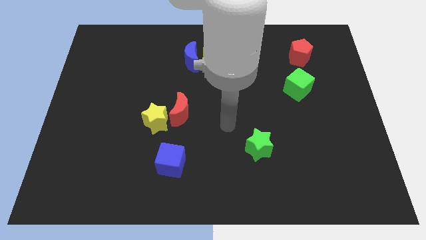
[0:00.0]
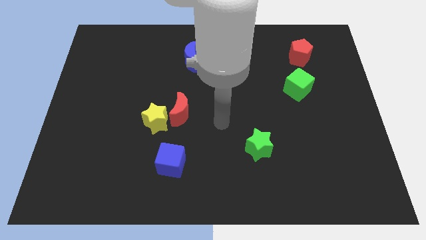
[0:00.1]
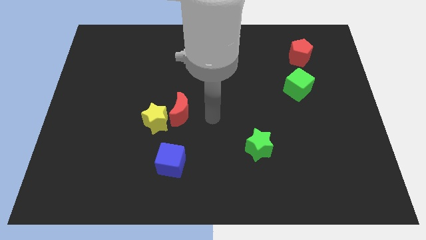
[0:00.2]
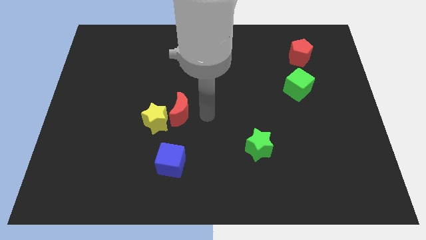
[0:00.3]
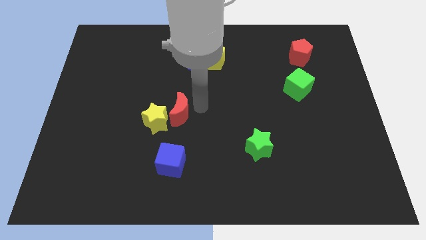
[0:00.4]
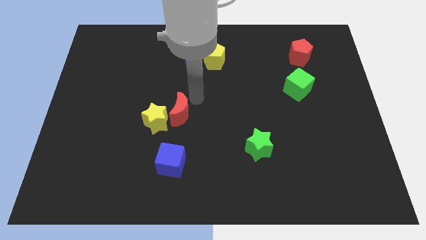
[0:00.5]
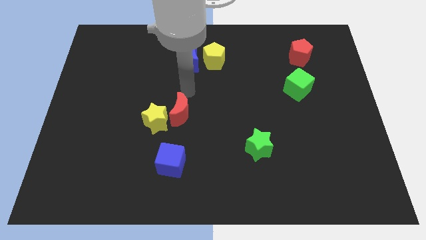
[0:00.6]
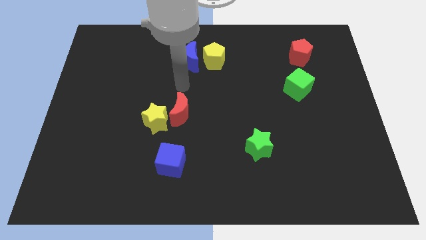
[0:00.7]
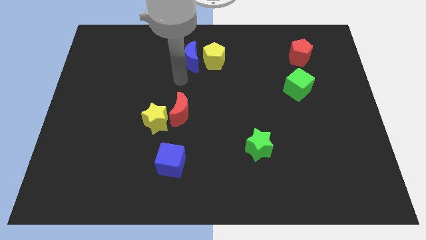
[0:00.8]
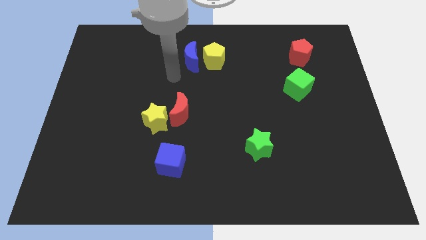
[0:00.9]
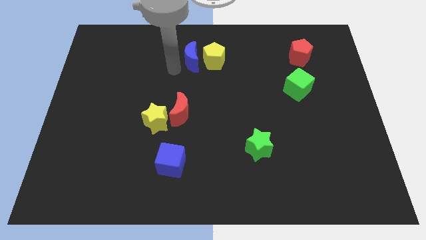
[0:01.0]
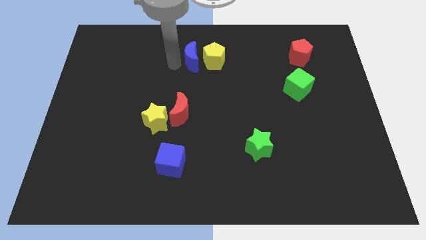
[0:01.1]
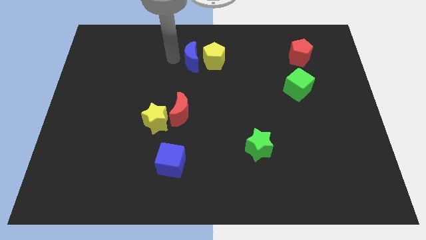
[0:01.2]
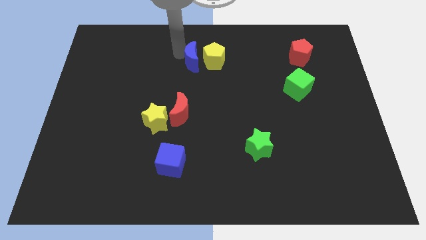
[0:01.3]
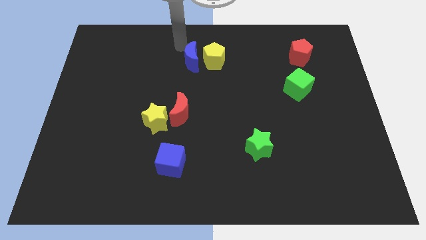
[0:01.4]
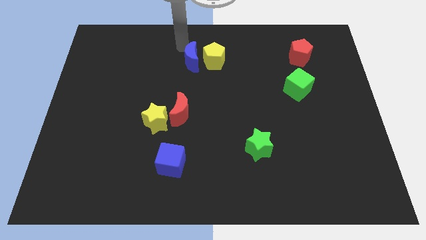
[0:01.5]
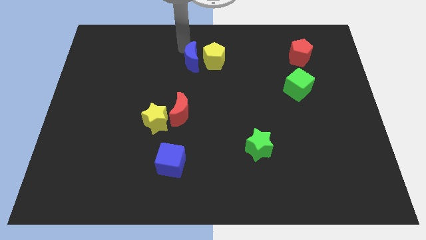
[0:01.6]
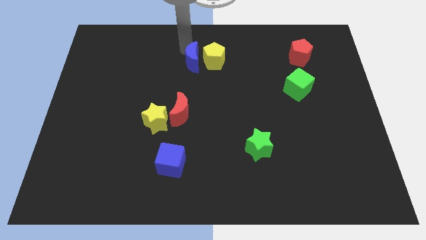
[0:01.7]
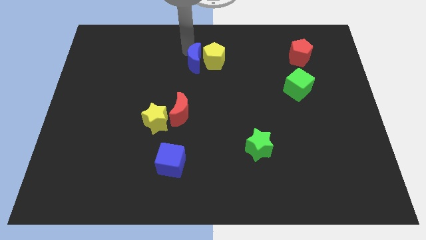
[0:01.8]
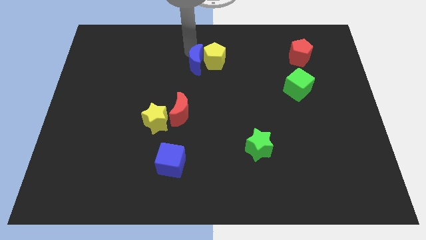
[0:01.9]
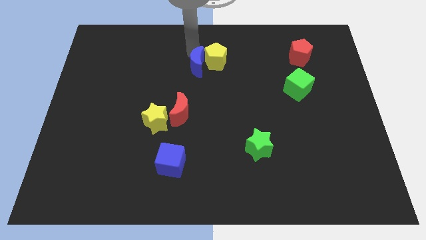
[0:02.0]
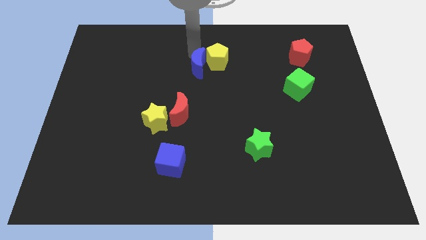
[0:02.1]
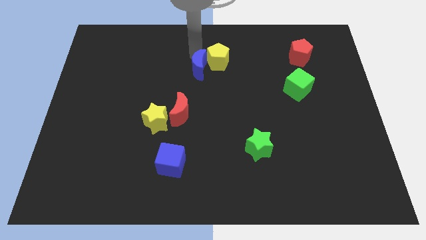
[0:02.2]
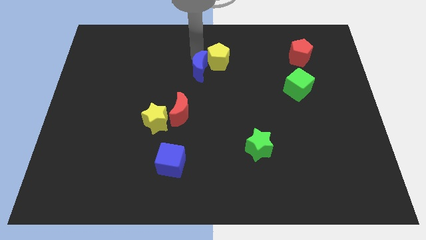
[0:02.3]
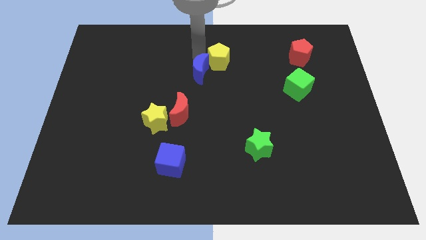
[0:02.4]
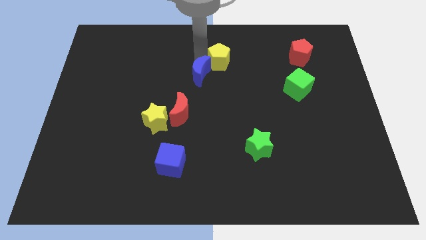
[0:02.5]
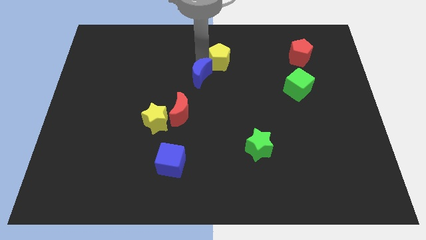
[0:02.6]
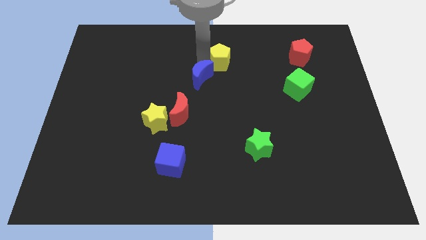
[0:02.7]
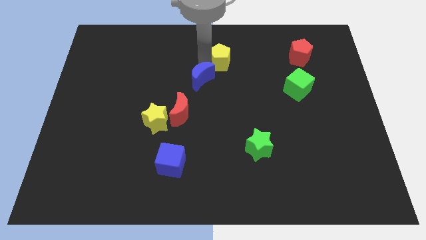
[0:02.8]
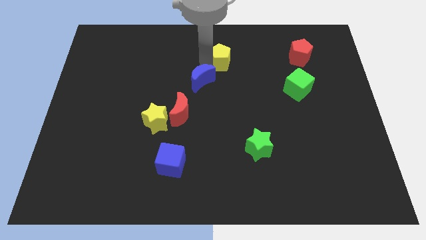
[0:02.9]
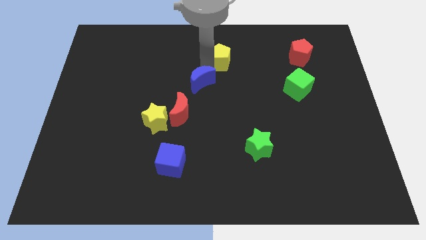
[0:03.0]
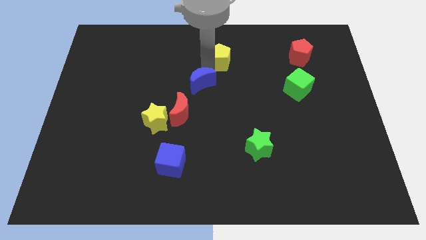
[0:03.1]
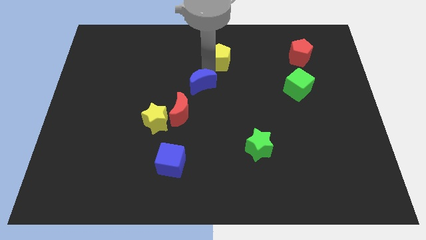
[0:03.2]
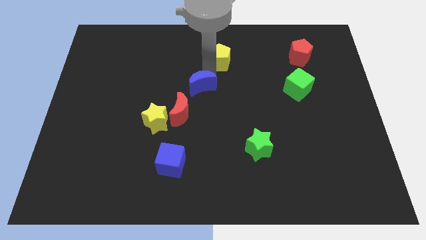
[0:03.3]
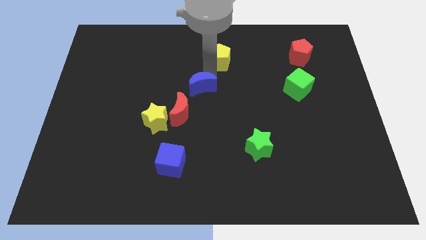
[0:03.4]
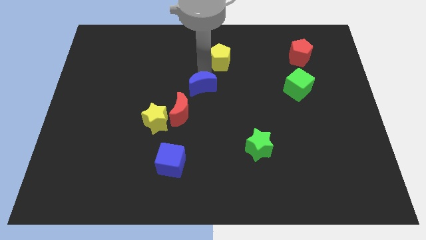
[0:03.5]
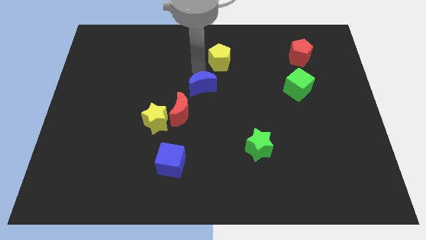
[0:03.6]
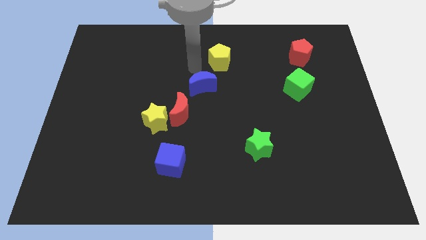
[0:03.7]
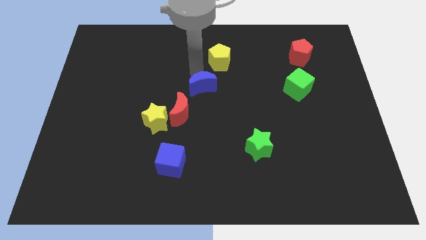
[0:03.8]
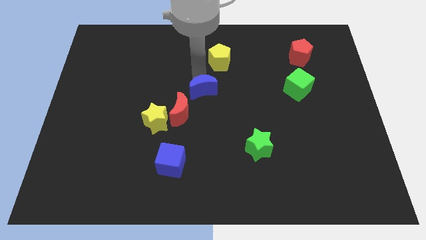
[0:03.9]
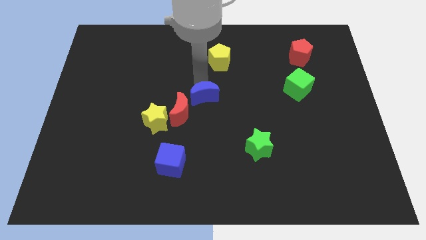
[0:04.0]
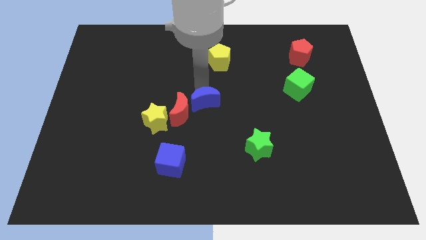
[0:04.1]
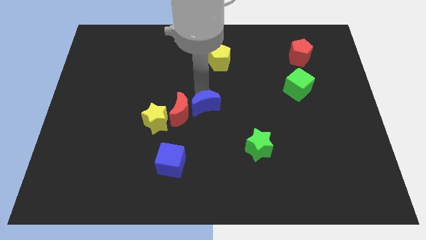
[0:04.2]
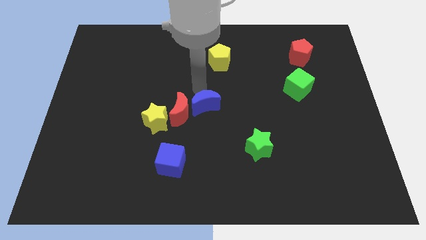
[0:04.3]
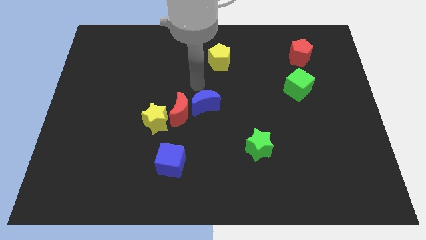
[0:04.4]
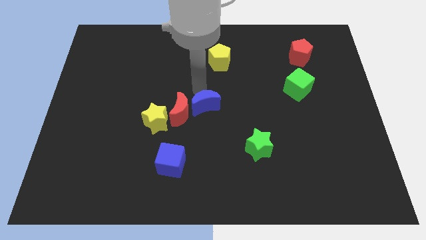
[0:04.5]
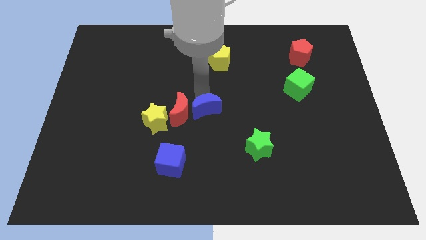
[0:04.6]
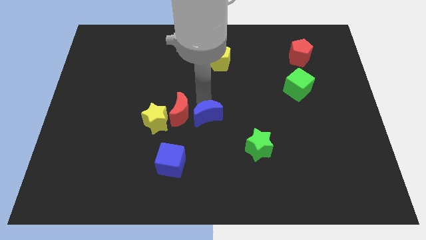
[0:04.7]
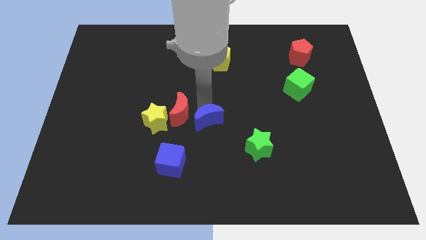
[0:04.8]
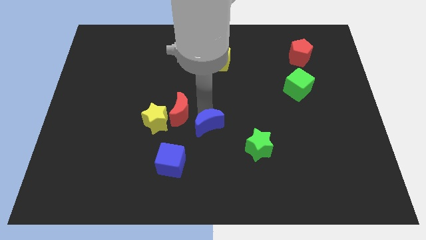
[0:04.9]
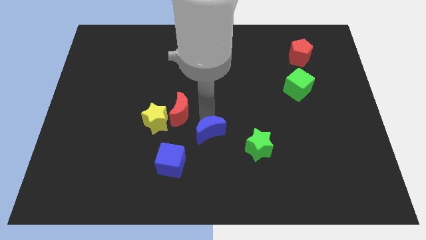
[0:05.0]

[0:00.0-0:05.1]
move the blue moon left of the green star

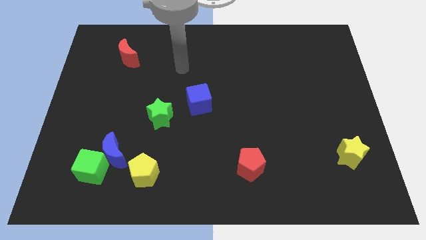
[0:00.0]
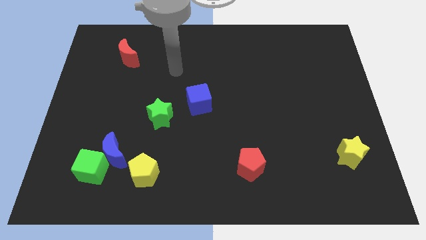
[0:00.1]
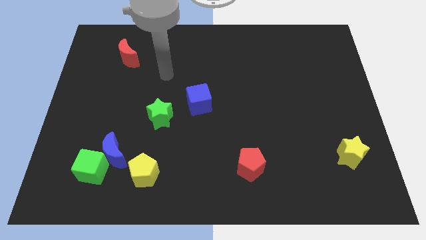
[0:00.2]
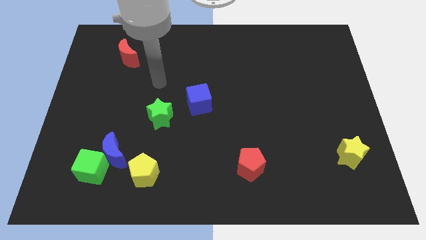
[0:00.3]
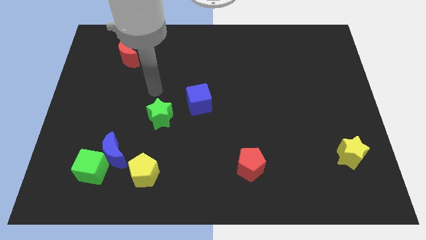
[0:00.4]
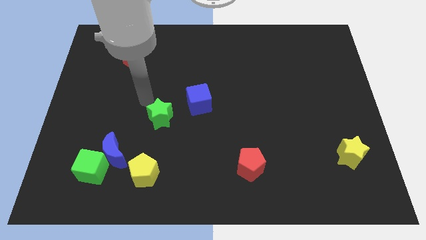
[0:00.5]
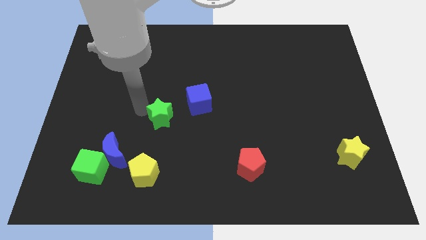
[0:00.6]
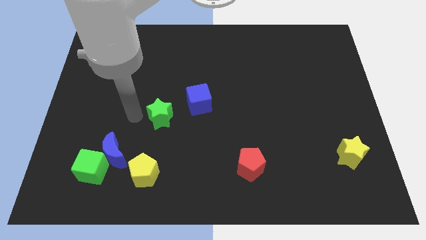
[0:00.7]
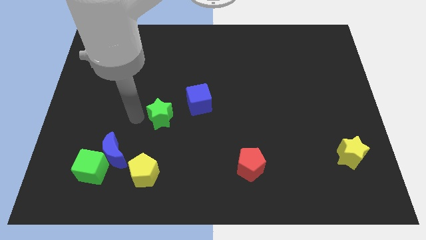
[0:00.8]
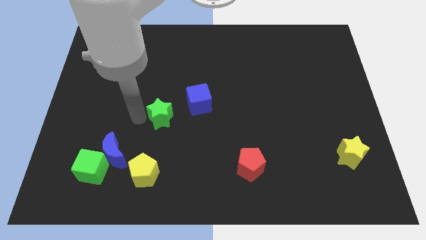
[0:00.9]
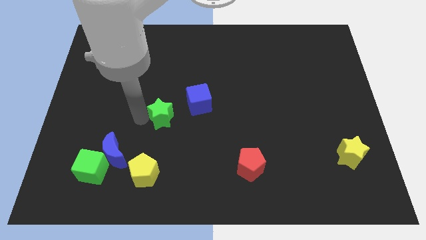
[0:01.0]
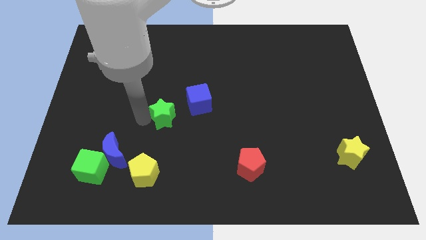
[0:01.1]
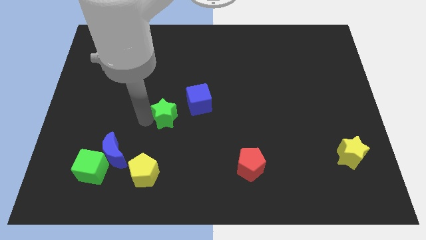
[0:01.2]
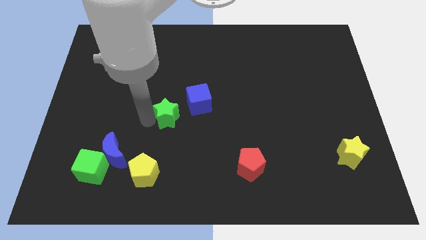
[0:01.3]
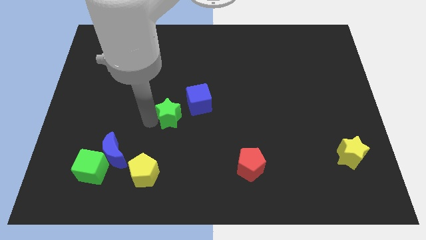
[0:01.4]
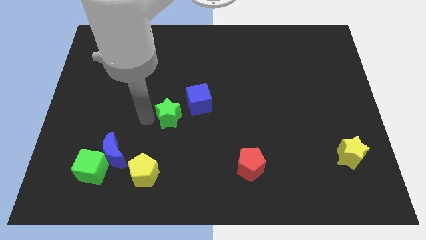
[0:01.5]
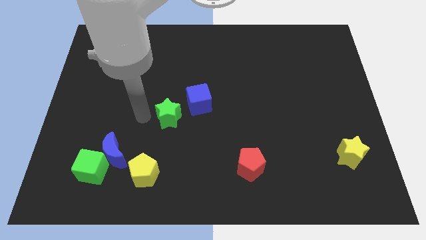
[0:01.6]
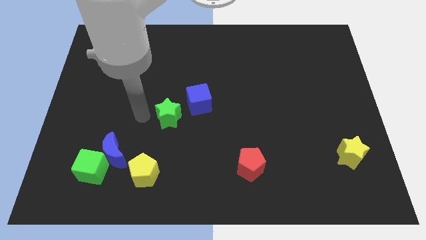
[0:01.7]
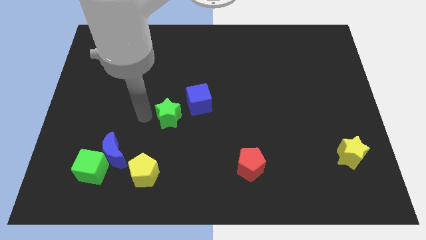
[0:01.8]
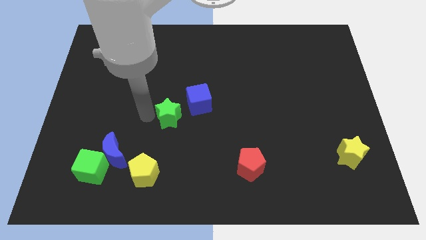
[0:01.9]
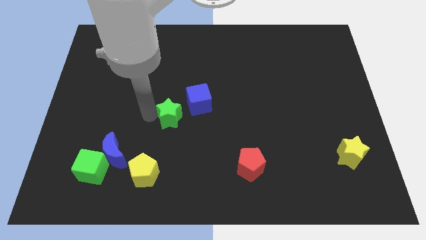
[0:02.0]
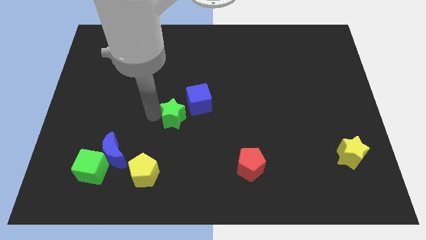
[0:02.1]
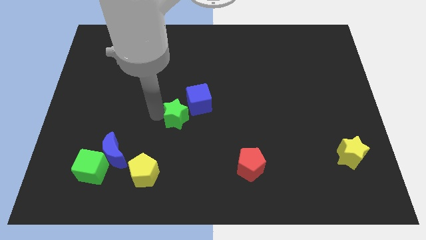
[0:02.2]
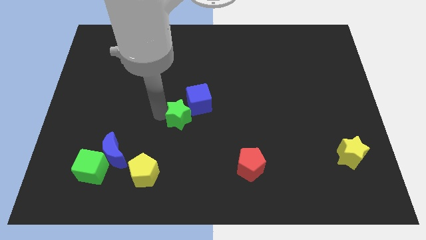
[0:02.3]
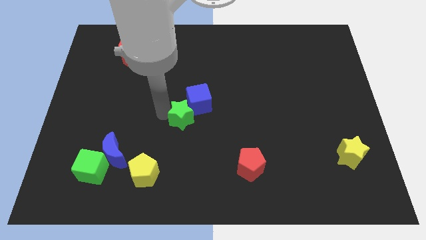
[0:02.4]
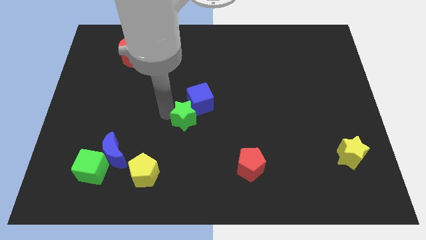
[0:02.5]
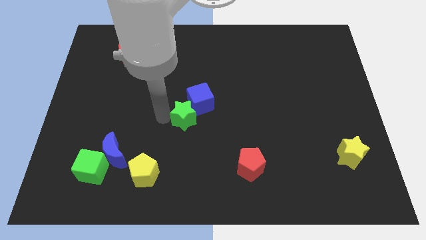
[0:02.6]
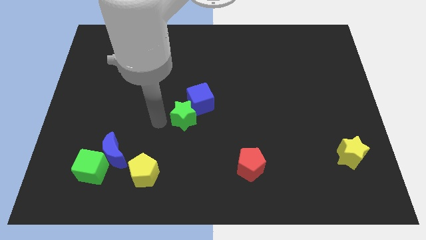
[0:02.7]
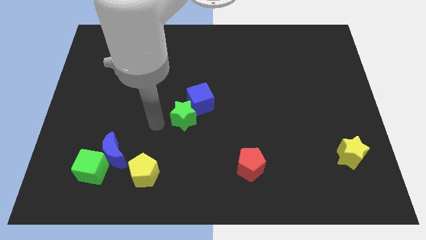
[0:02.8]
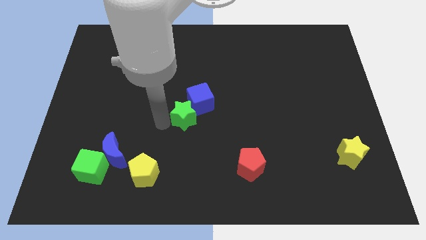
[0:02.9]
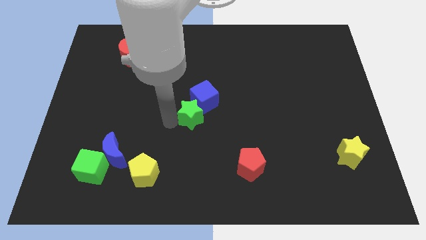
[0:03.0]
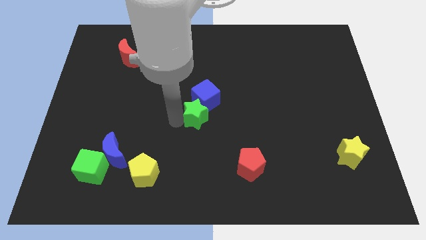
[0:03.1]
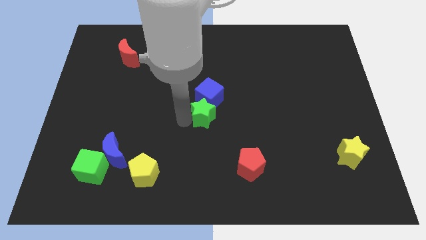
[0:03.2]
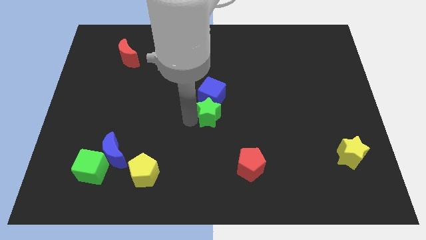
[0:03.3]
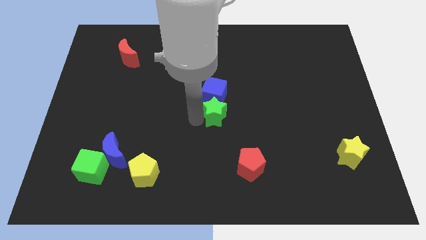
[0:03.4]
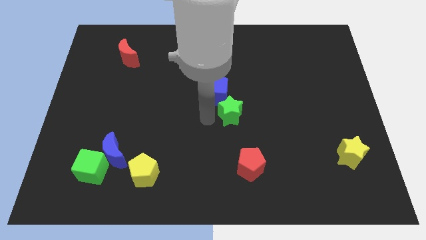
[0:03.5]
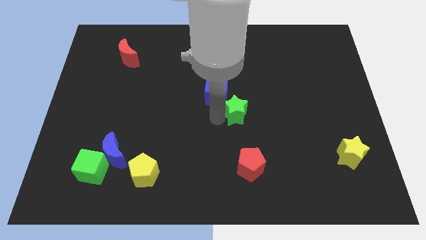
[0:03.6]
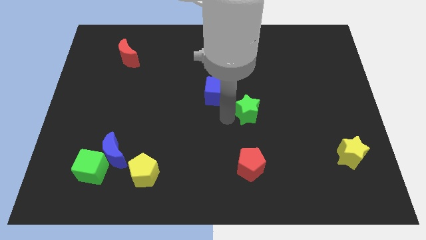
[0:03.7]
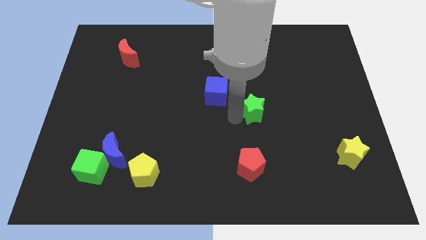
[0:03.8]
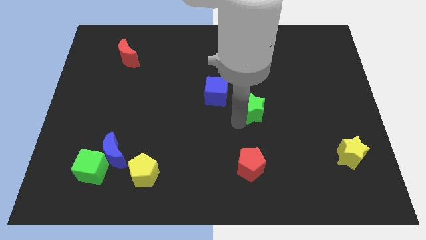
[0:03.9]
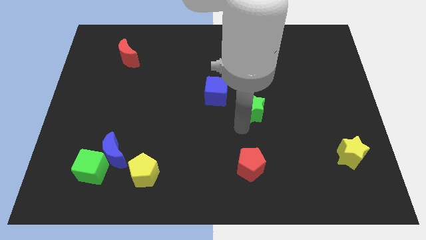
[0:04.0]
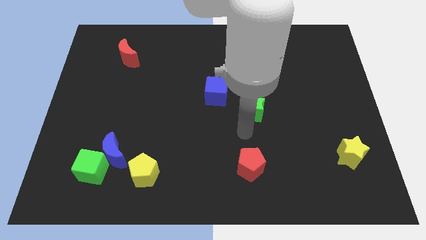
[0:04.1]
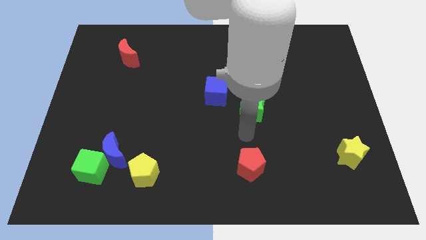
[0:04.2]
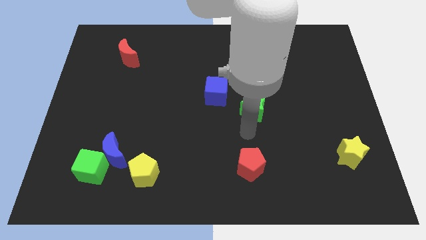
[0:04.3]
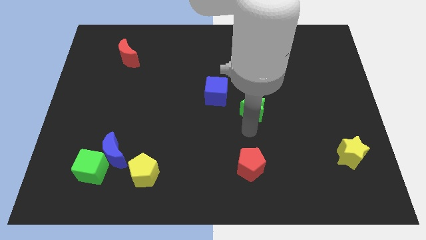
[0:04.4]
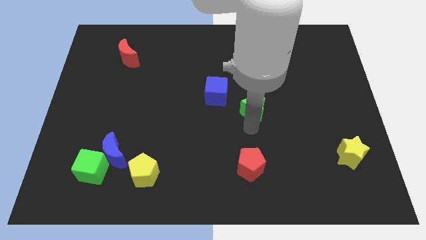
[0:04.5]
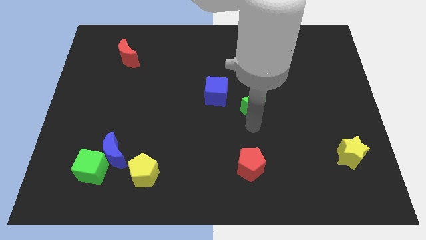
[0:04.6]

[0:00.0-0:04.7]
push the green star just right of the blue cube
